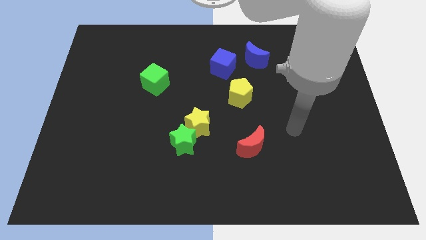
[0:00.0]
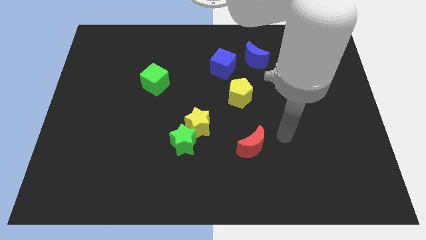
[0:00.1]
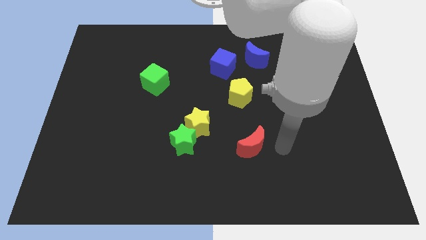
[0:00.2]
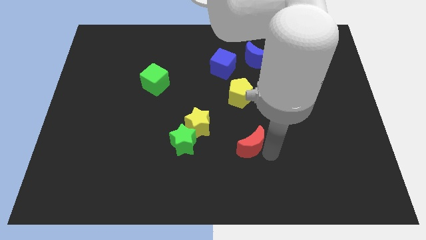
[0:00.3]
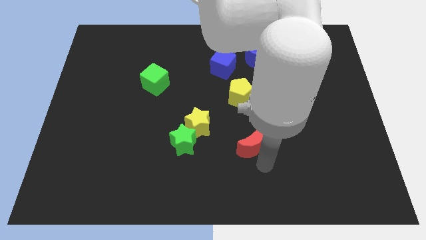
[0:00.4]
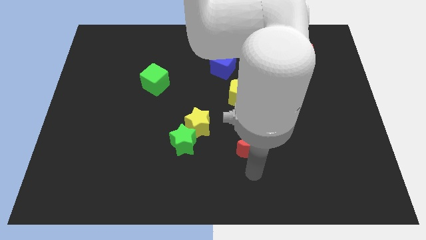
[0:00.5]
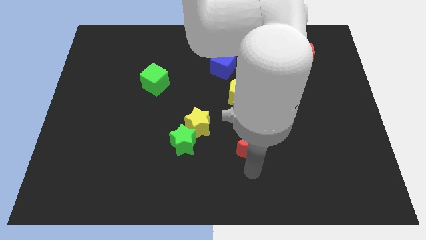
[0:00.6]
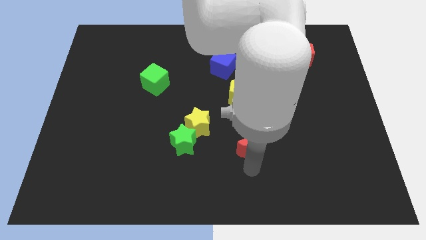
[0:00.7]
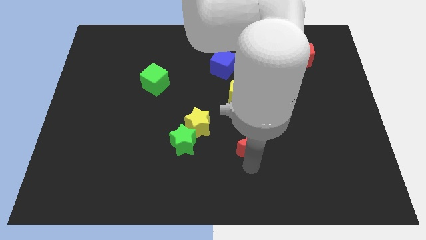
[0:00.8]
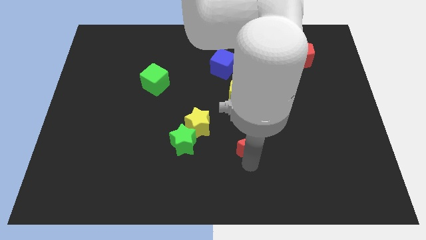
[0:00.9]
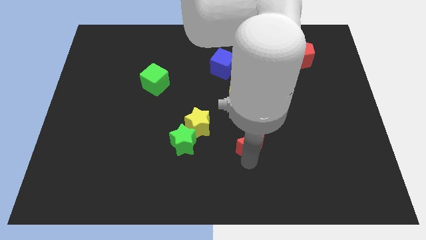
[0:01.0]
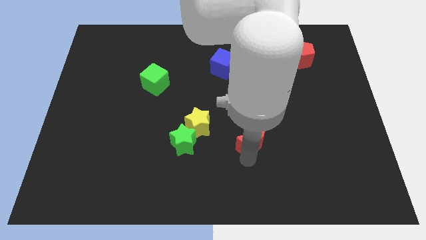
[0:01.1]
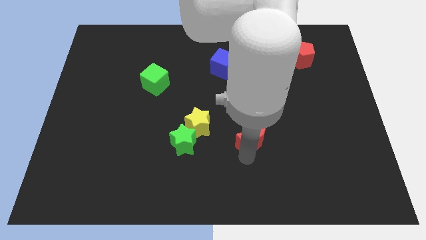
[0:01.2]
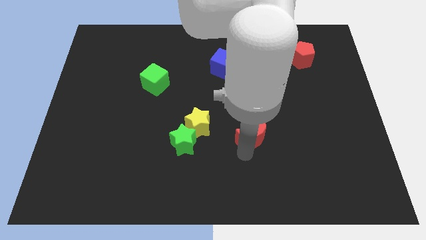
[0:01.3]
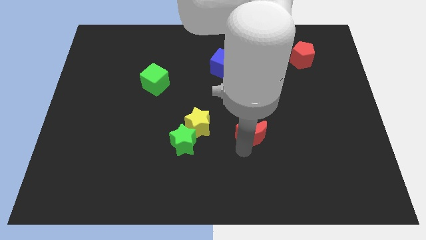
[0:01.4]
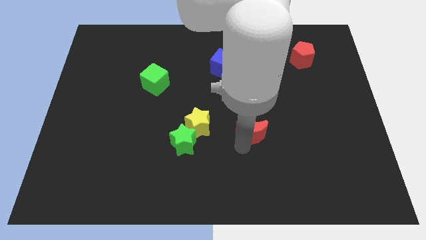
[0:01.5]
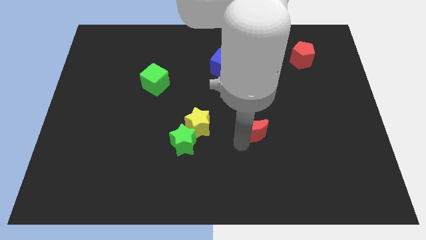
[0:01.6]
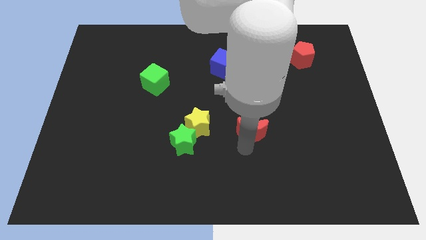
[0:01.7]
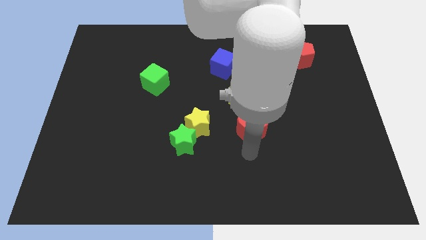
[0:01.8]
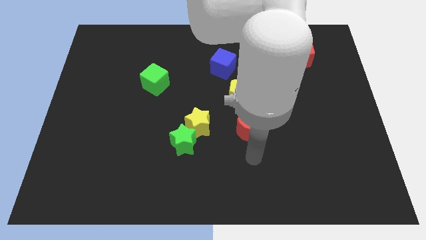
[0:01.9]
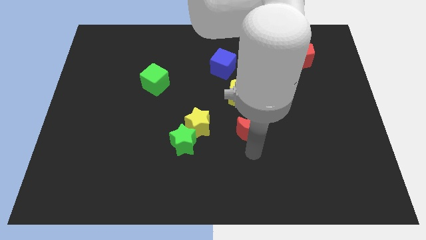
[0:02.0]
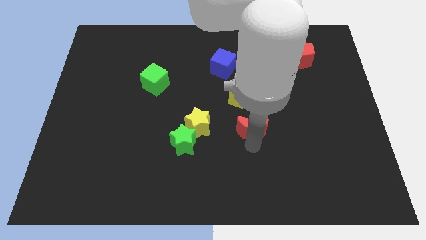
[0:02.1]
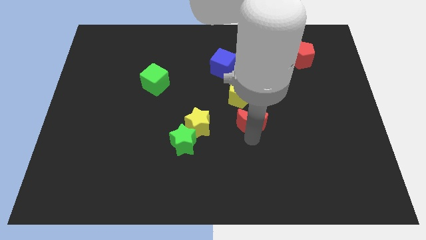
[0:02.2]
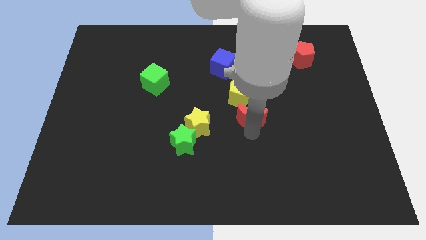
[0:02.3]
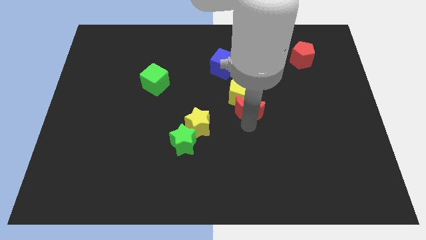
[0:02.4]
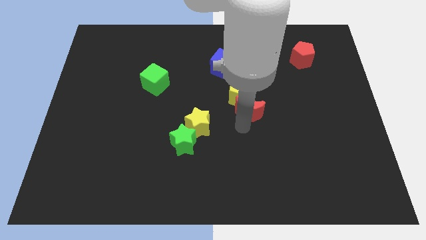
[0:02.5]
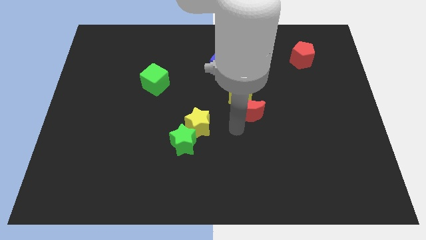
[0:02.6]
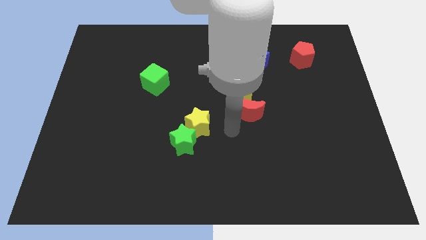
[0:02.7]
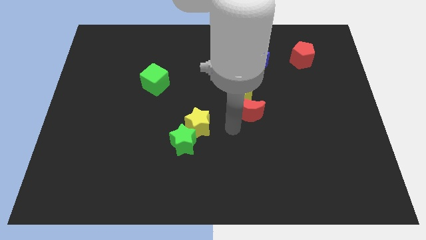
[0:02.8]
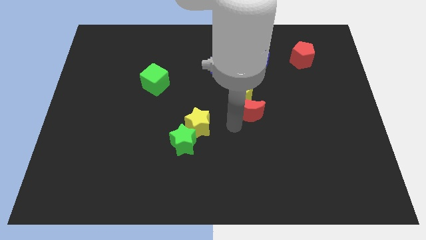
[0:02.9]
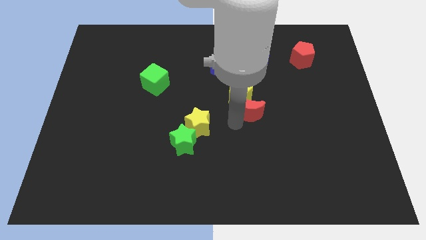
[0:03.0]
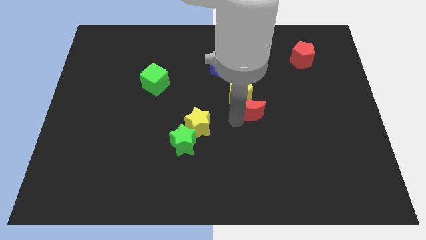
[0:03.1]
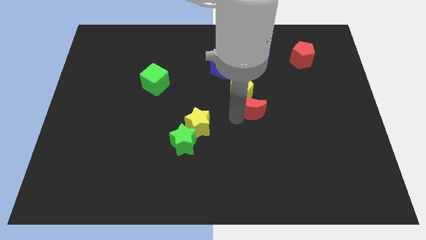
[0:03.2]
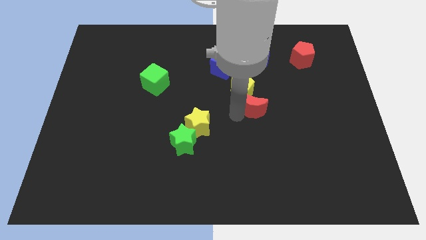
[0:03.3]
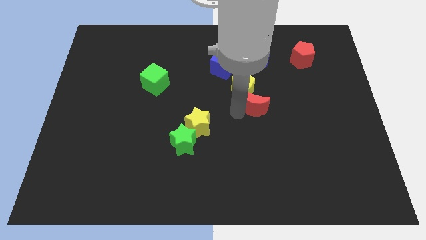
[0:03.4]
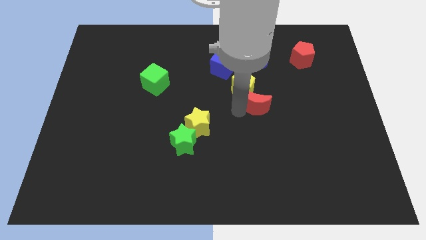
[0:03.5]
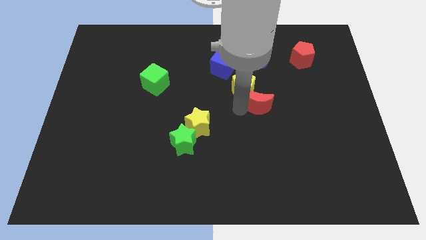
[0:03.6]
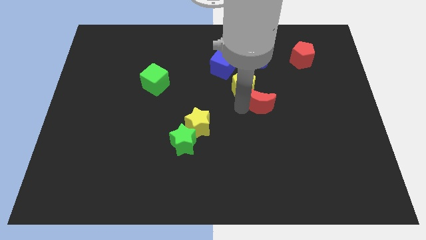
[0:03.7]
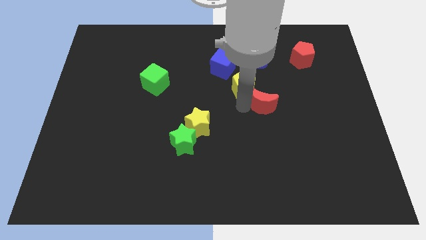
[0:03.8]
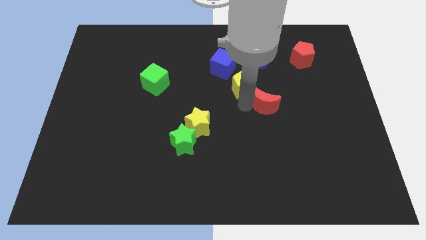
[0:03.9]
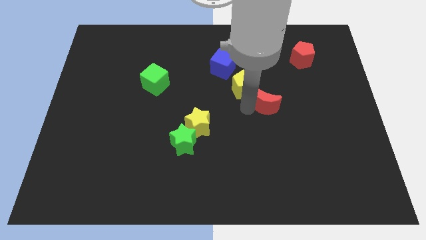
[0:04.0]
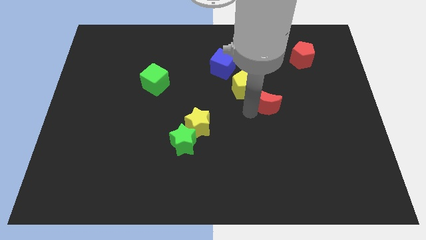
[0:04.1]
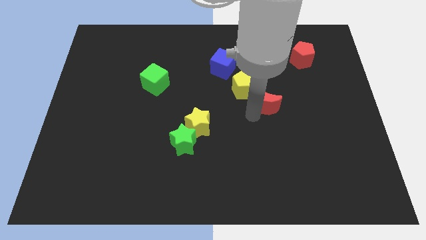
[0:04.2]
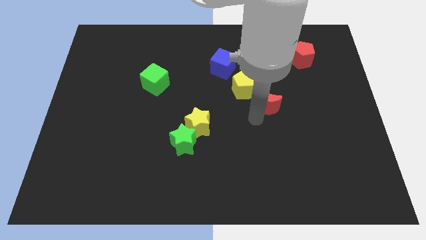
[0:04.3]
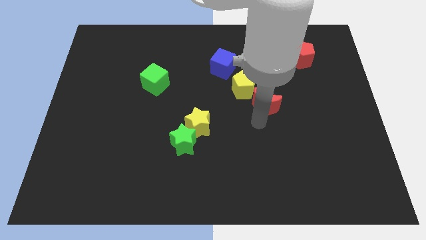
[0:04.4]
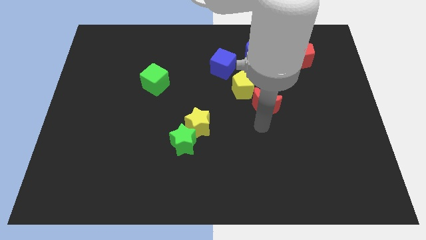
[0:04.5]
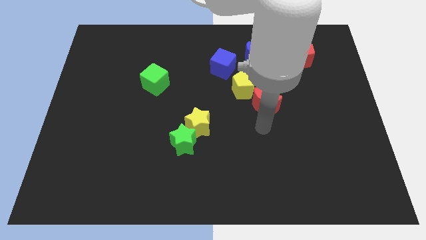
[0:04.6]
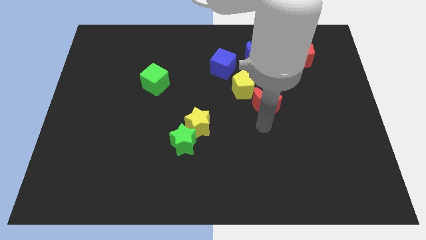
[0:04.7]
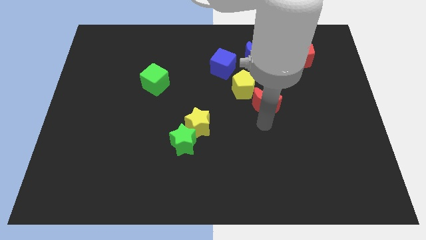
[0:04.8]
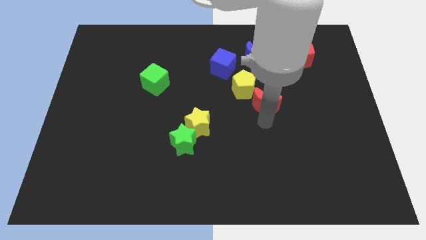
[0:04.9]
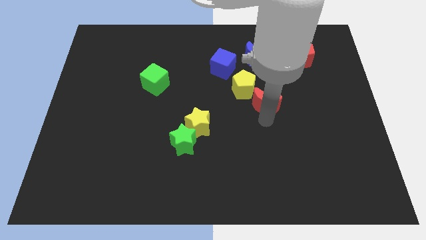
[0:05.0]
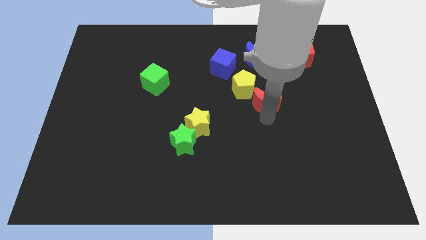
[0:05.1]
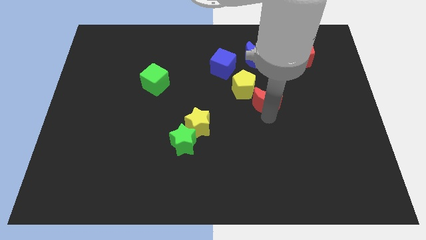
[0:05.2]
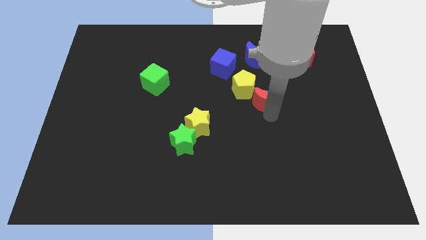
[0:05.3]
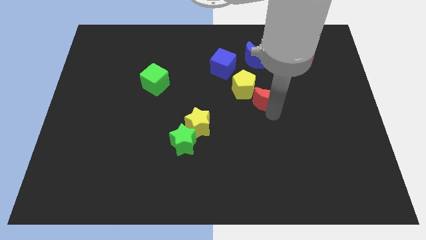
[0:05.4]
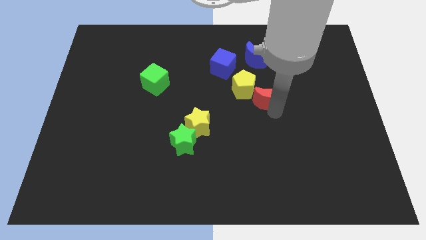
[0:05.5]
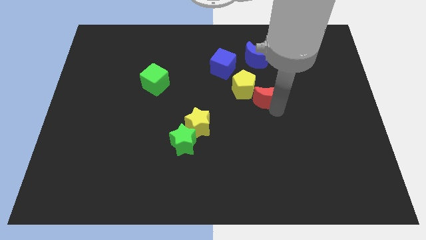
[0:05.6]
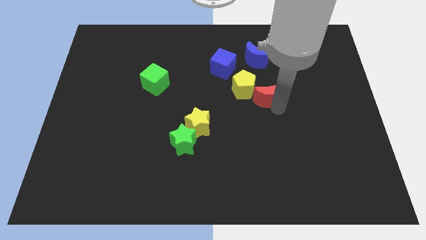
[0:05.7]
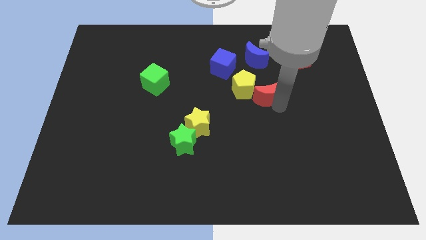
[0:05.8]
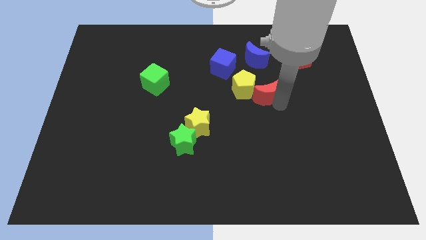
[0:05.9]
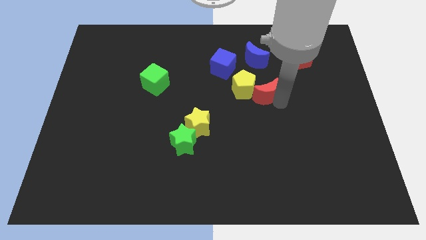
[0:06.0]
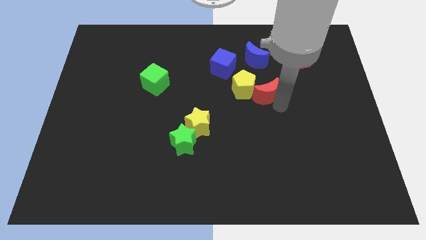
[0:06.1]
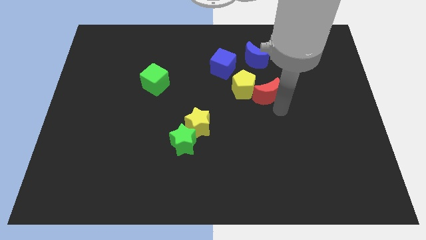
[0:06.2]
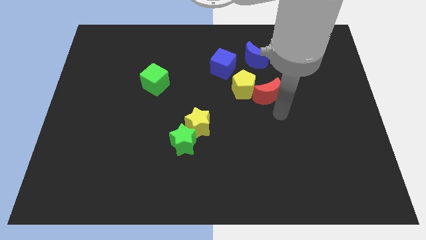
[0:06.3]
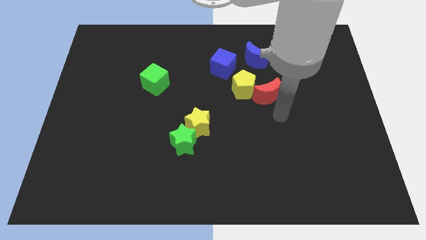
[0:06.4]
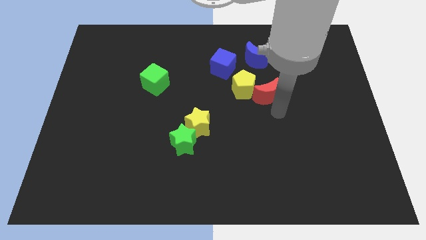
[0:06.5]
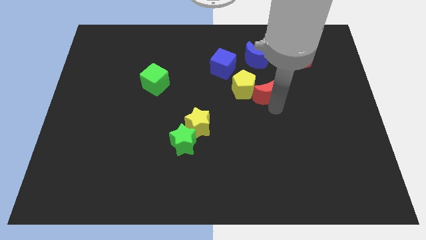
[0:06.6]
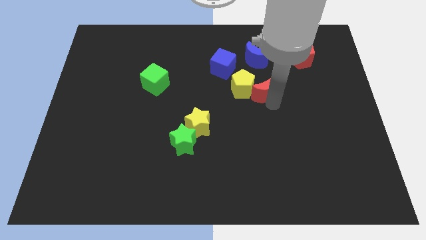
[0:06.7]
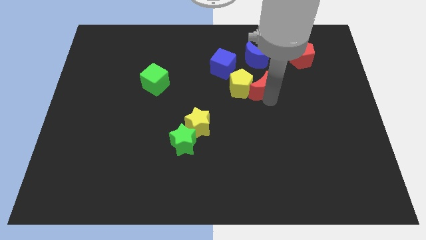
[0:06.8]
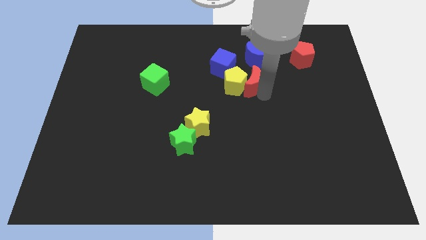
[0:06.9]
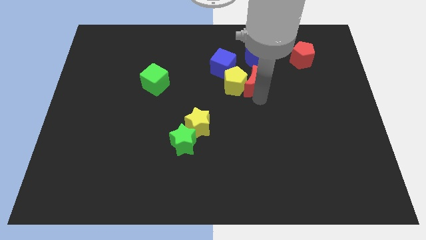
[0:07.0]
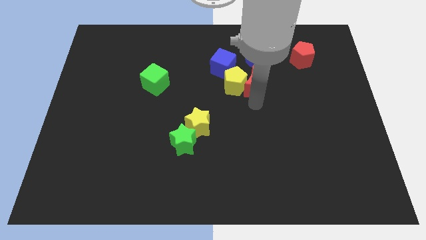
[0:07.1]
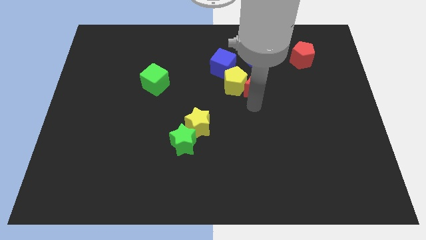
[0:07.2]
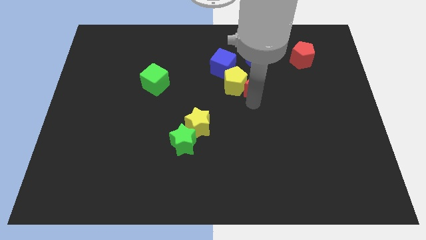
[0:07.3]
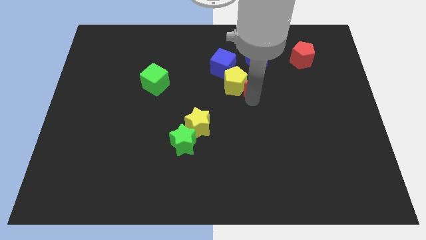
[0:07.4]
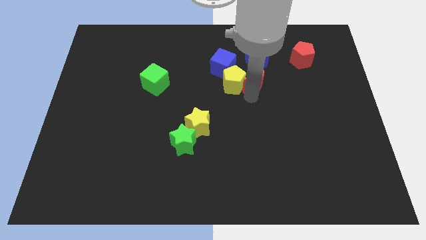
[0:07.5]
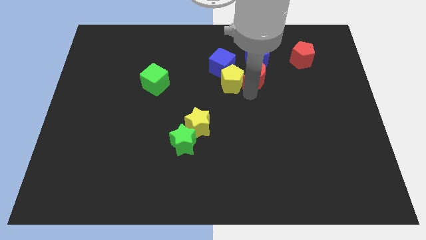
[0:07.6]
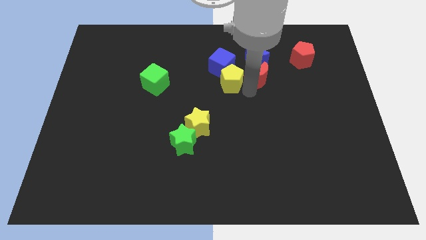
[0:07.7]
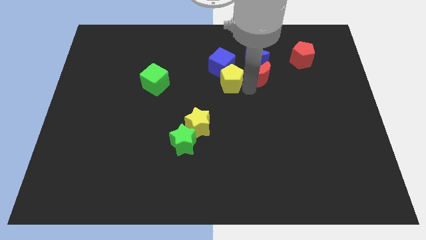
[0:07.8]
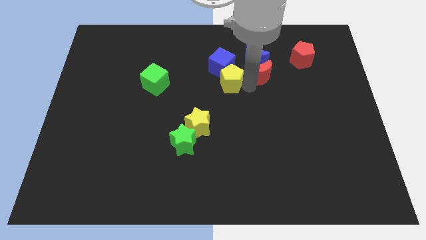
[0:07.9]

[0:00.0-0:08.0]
put the red moon towards the blue moon

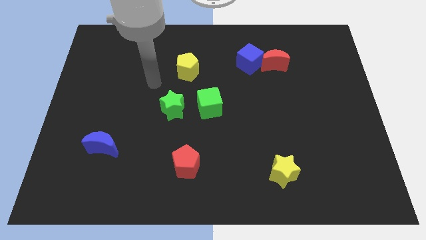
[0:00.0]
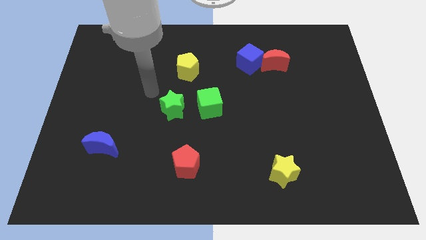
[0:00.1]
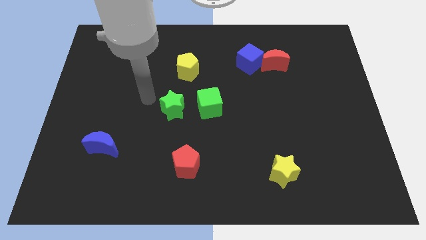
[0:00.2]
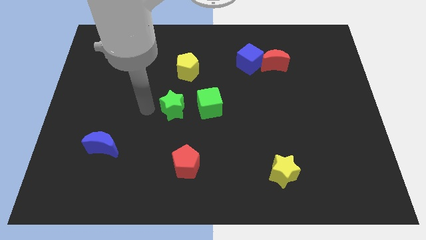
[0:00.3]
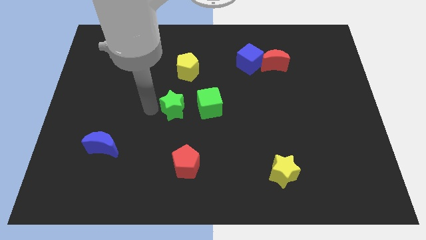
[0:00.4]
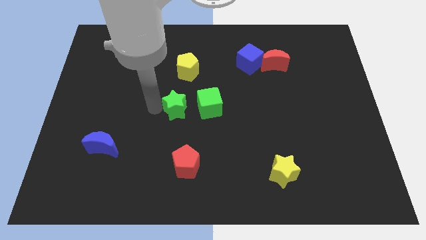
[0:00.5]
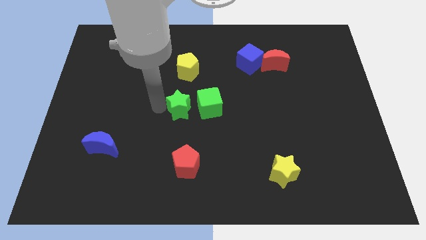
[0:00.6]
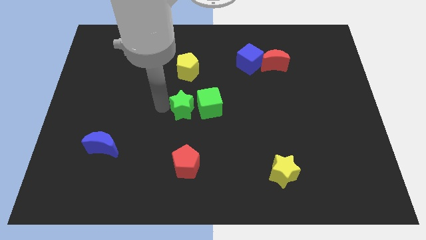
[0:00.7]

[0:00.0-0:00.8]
slide the green star to the green cube
